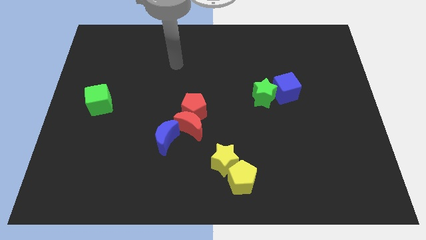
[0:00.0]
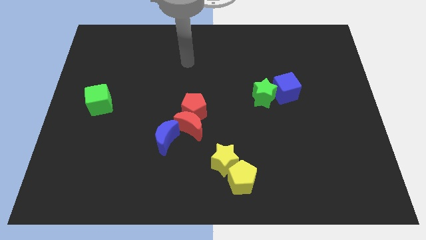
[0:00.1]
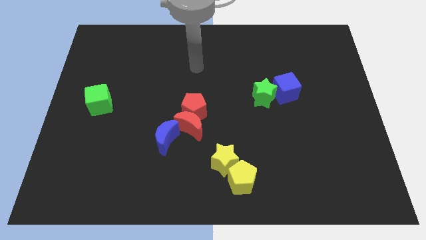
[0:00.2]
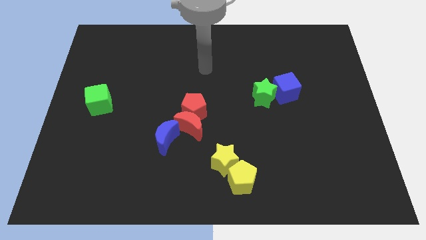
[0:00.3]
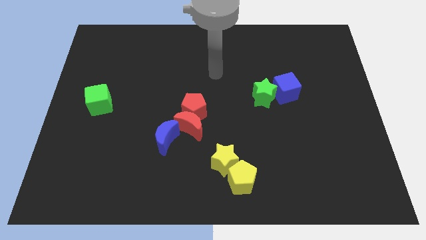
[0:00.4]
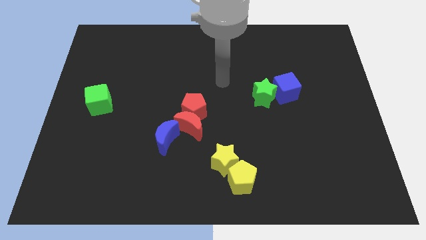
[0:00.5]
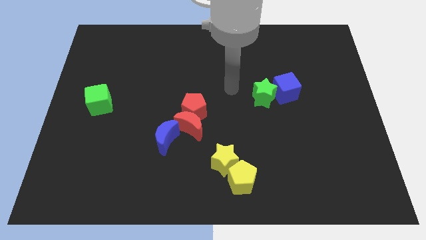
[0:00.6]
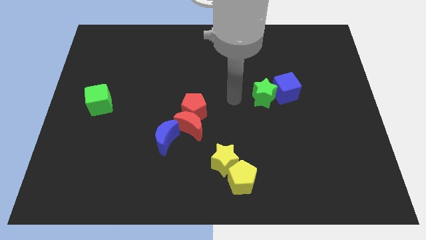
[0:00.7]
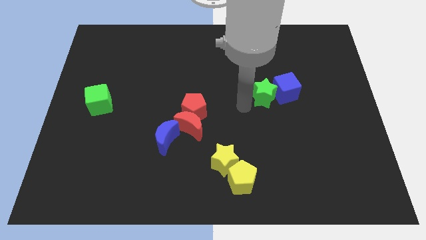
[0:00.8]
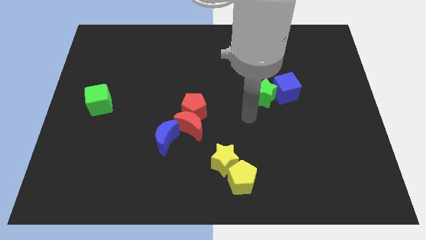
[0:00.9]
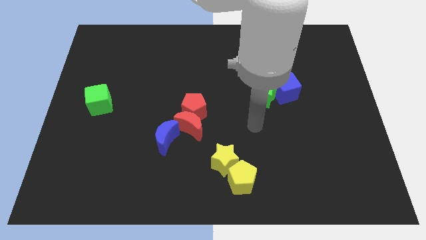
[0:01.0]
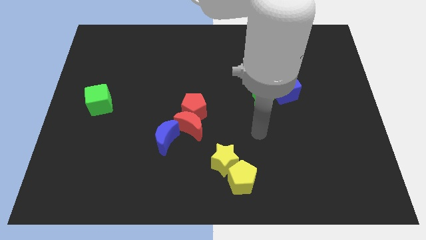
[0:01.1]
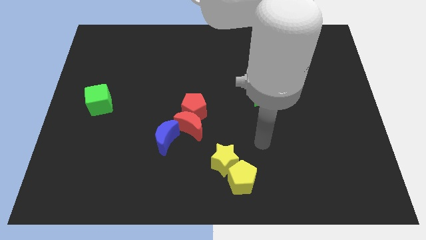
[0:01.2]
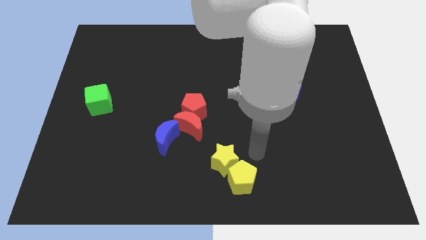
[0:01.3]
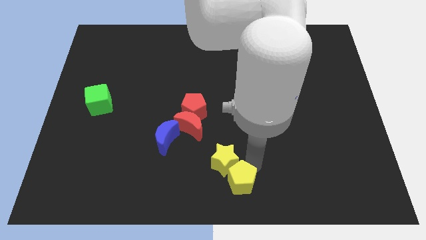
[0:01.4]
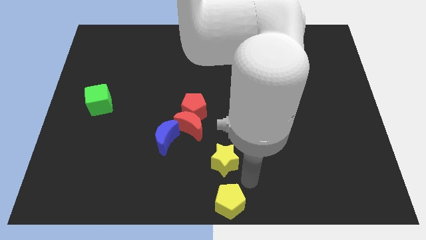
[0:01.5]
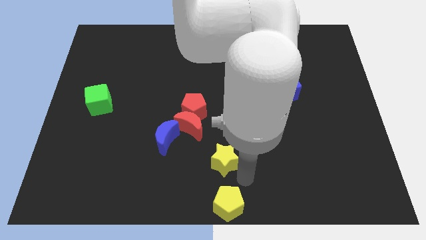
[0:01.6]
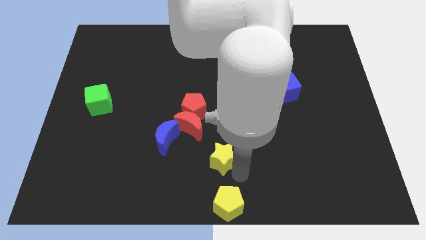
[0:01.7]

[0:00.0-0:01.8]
pull the yellow star apart from the yellow pentagon

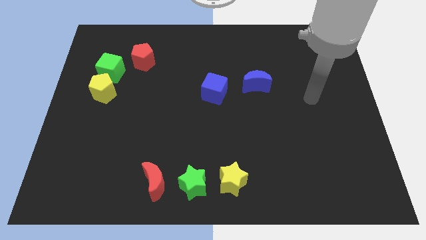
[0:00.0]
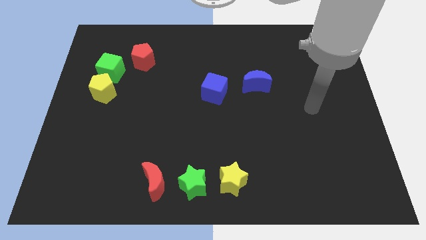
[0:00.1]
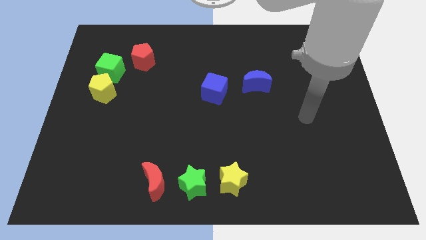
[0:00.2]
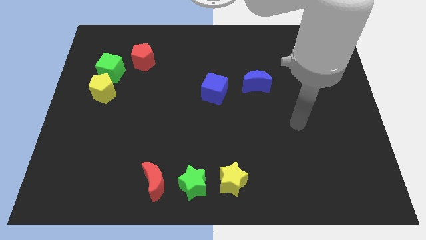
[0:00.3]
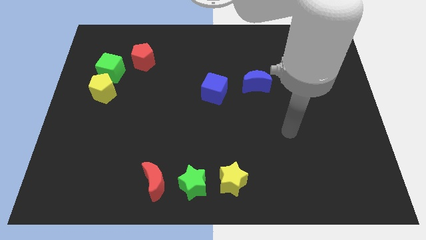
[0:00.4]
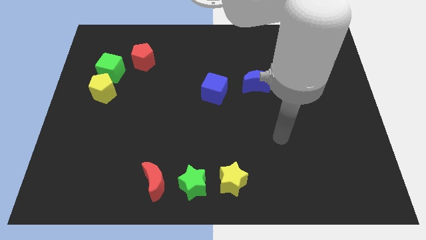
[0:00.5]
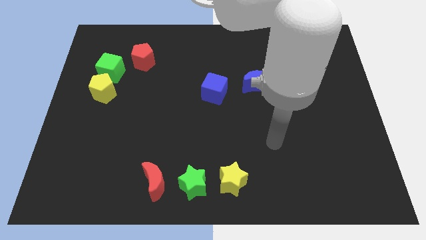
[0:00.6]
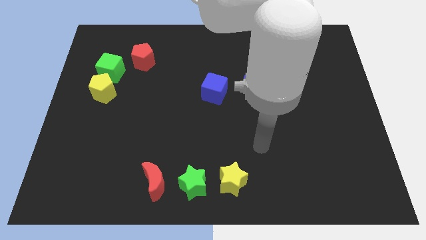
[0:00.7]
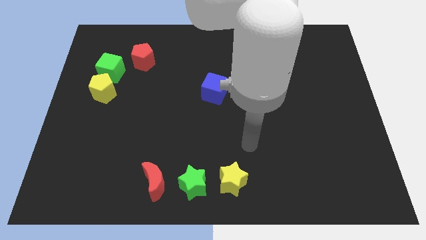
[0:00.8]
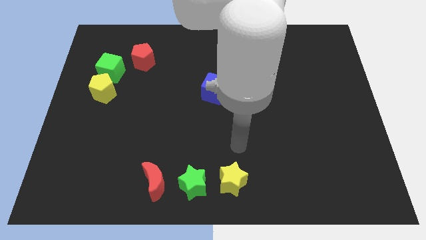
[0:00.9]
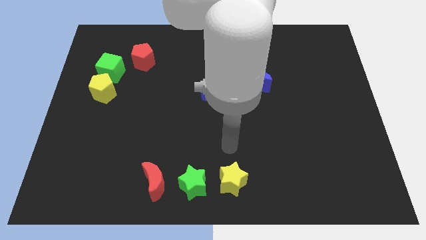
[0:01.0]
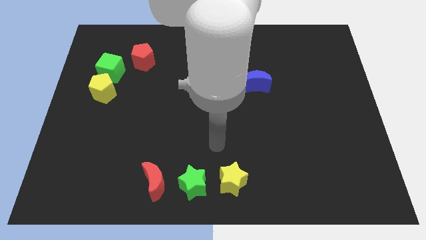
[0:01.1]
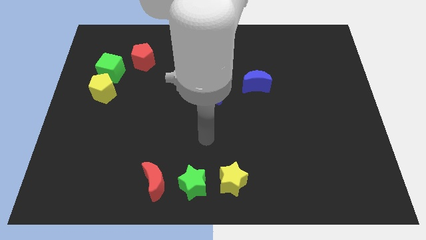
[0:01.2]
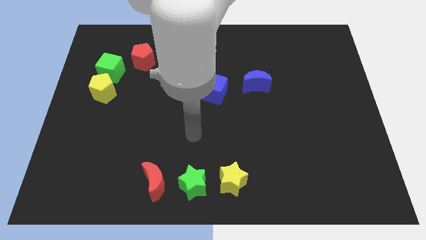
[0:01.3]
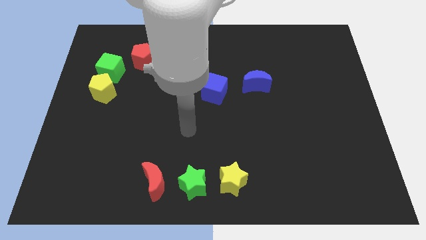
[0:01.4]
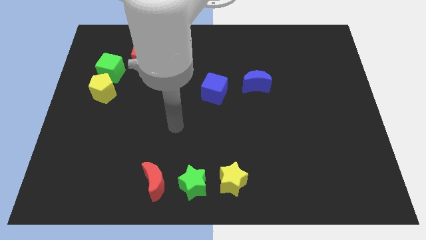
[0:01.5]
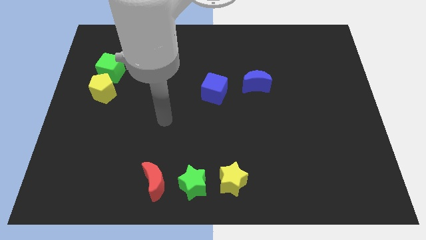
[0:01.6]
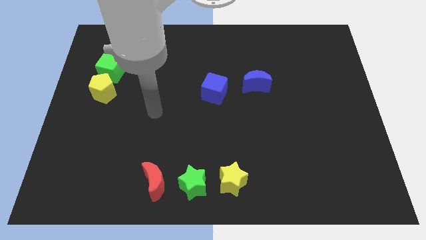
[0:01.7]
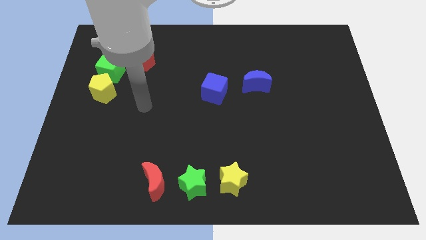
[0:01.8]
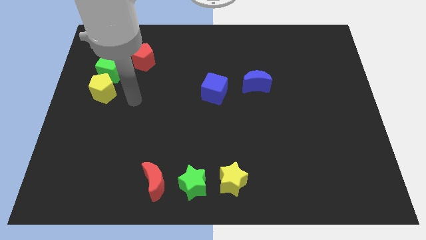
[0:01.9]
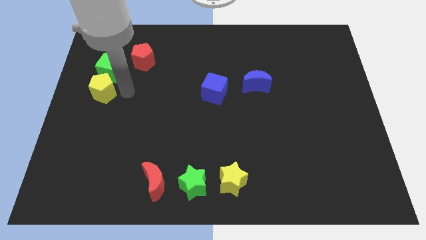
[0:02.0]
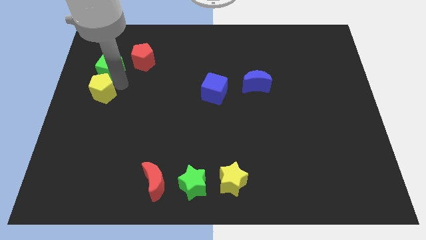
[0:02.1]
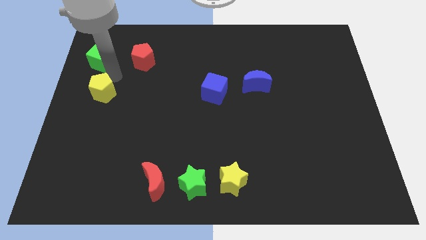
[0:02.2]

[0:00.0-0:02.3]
move the yellow pentagon away from the green cube

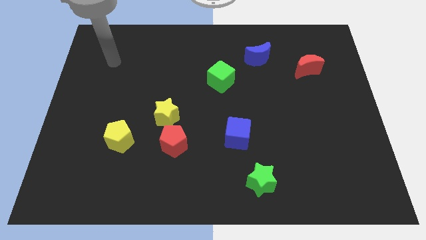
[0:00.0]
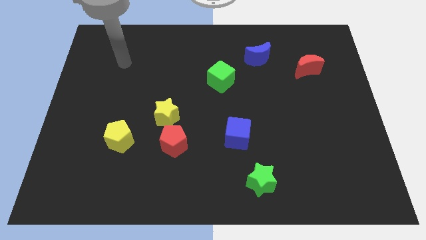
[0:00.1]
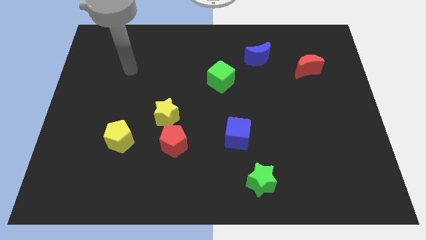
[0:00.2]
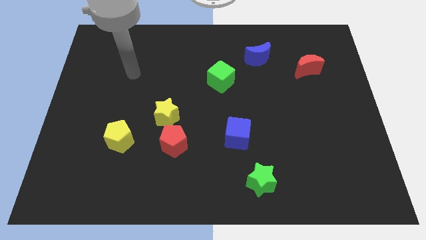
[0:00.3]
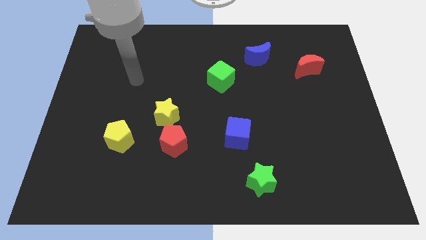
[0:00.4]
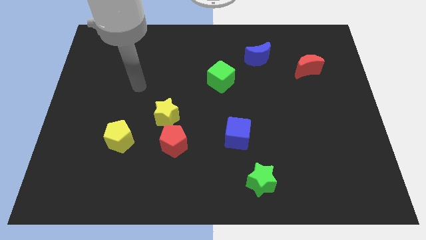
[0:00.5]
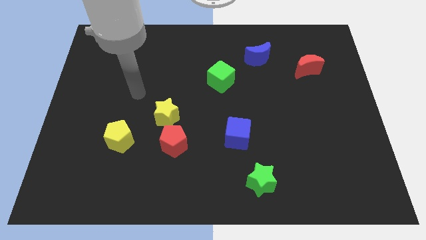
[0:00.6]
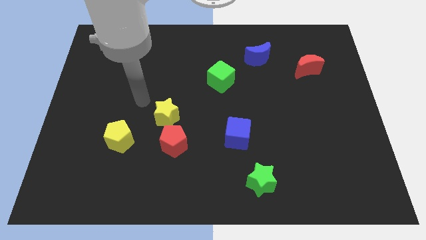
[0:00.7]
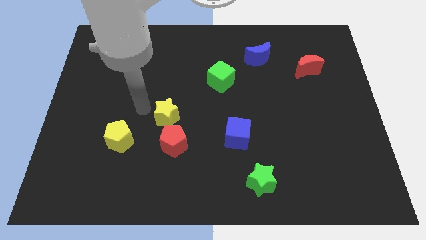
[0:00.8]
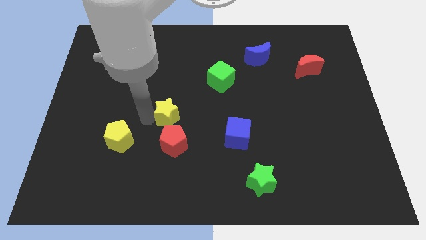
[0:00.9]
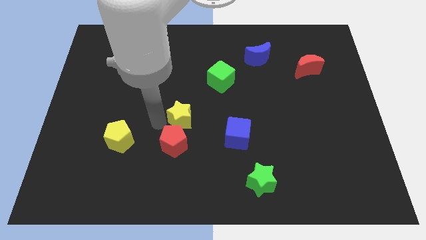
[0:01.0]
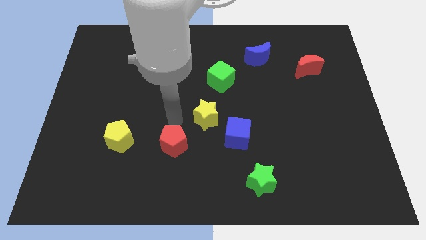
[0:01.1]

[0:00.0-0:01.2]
pull the red pentagon apart from the yellow star

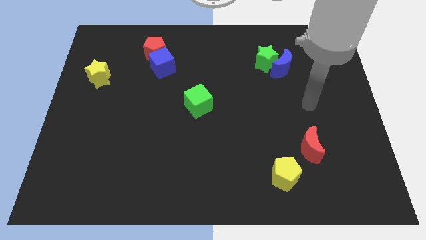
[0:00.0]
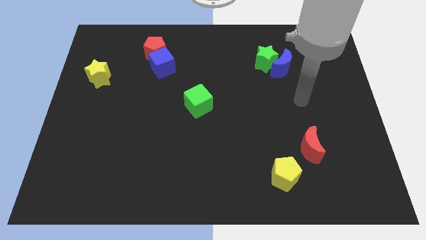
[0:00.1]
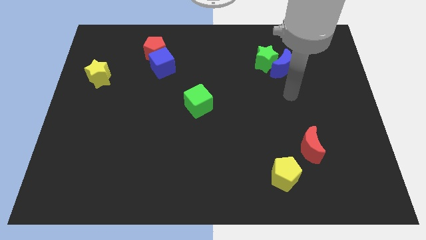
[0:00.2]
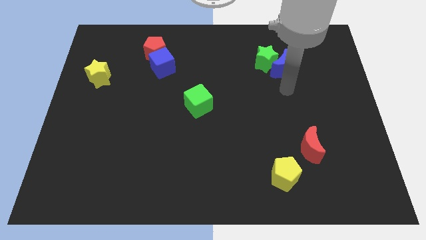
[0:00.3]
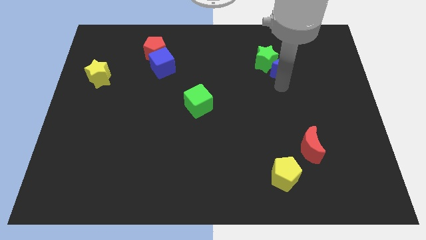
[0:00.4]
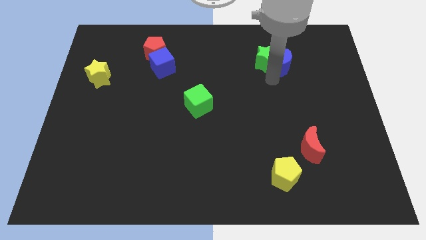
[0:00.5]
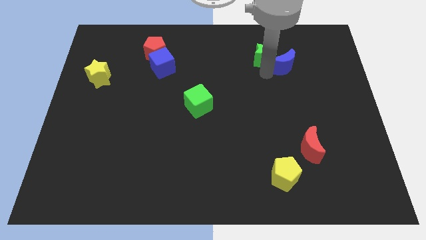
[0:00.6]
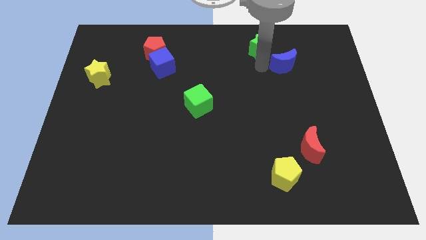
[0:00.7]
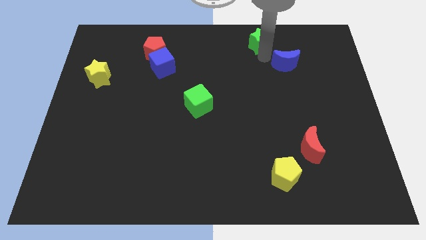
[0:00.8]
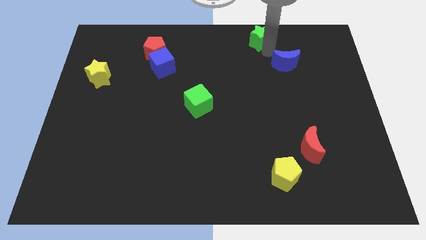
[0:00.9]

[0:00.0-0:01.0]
separate the blue moon from the green star

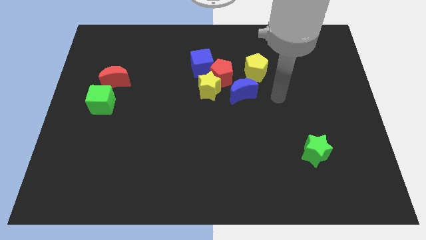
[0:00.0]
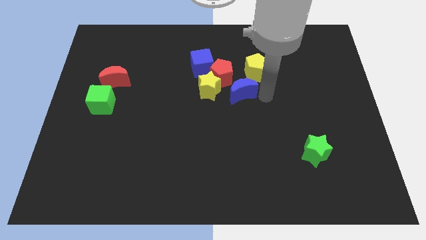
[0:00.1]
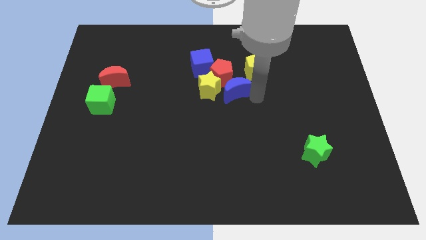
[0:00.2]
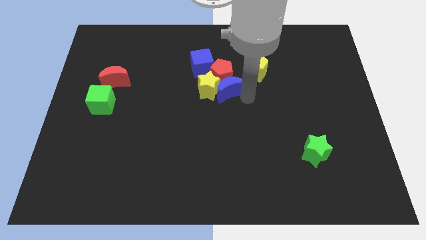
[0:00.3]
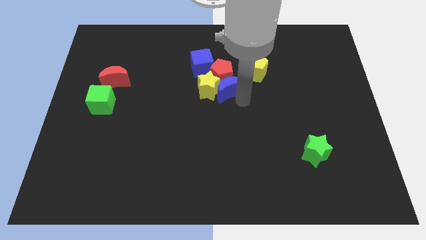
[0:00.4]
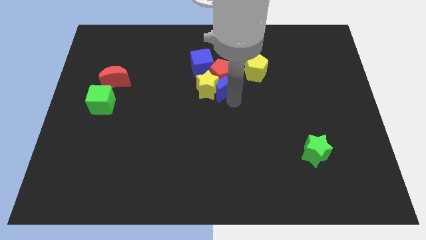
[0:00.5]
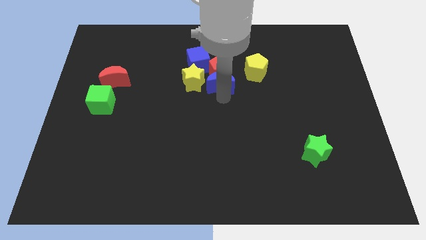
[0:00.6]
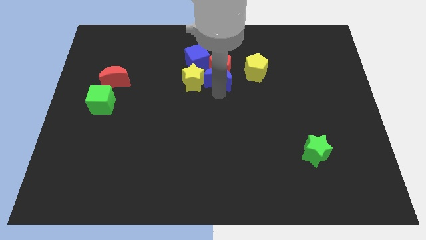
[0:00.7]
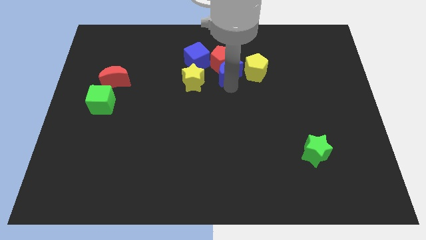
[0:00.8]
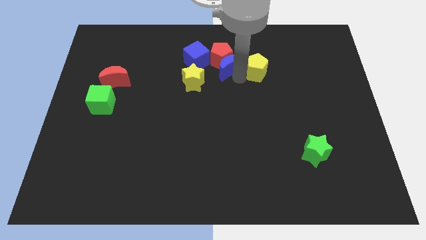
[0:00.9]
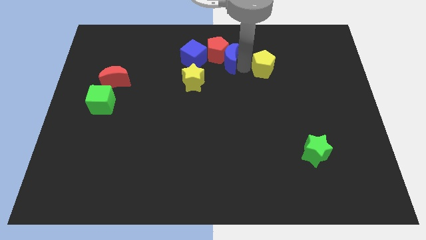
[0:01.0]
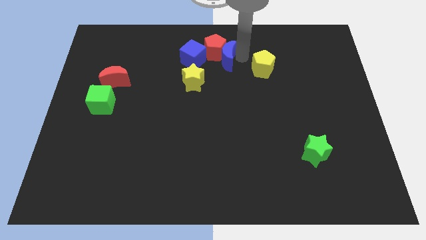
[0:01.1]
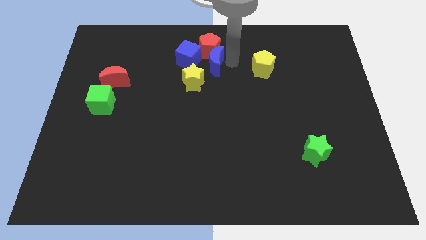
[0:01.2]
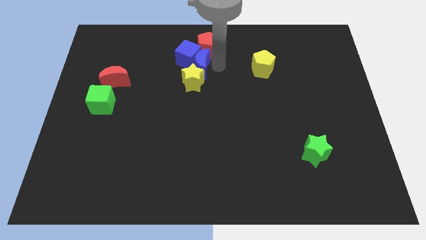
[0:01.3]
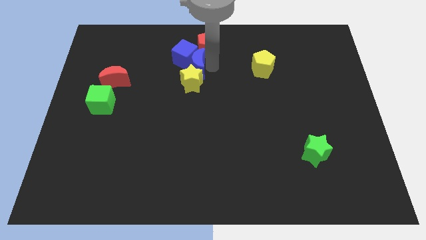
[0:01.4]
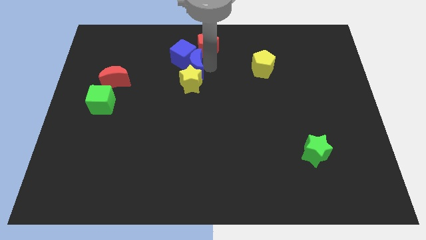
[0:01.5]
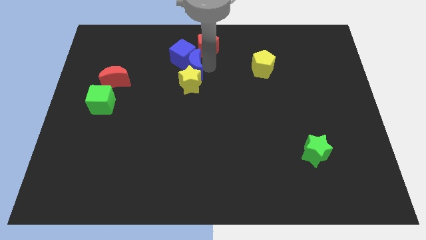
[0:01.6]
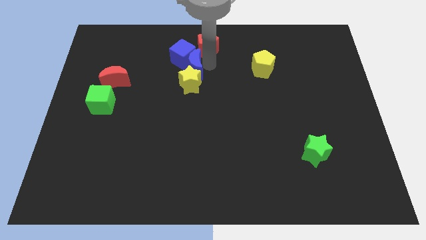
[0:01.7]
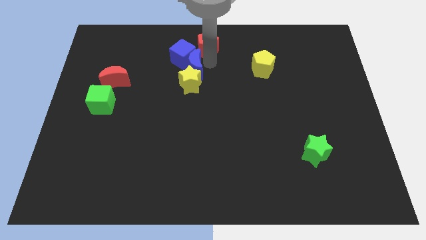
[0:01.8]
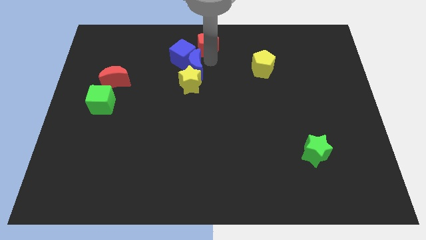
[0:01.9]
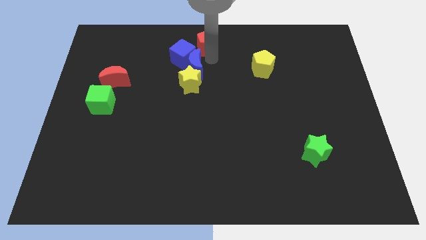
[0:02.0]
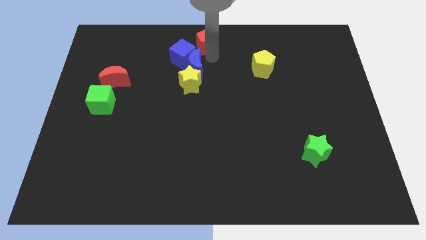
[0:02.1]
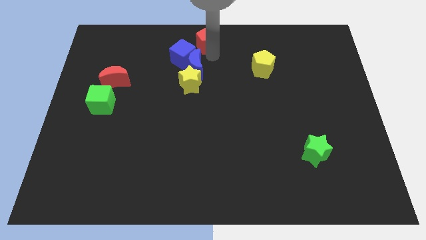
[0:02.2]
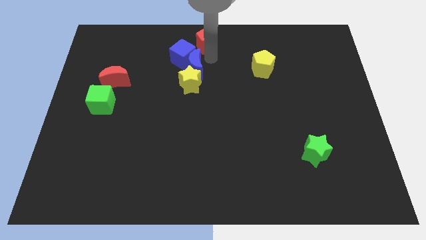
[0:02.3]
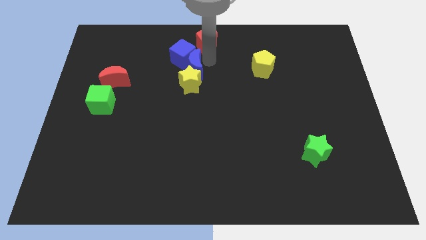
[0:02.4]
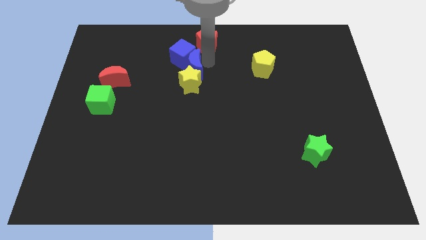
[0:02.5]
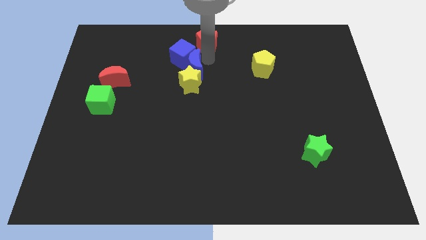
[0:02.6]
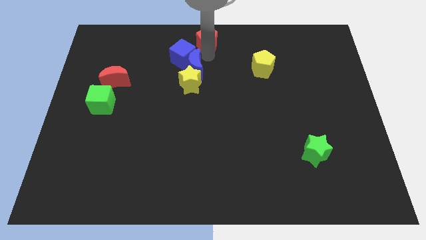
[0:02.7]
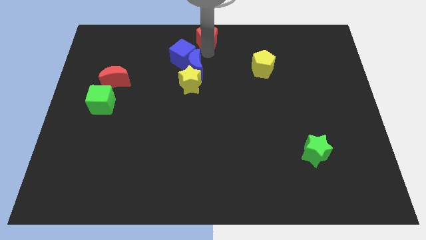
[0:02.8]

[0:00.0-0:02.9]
separate the red pentagon from the group

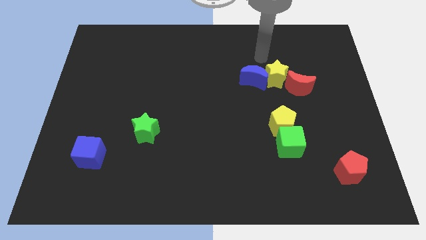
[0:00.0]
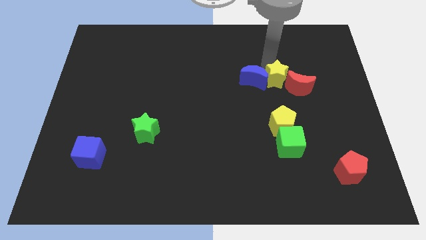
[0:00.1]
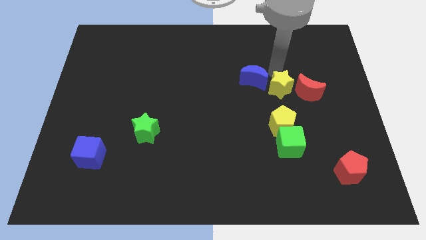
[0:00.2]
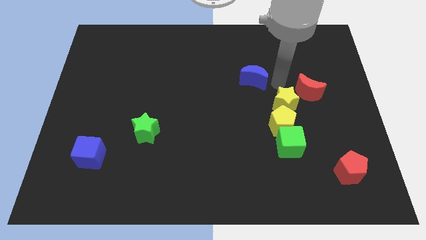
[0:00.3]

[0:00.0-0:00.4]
pull the blue moon apart from the yellow star
